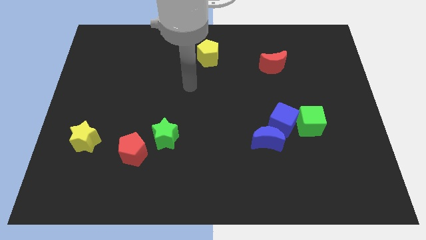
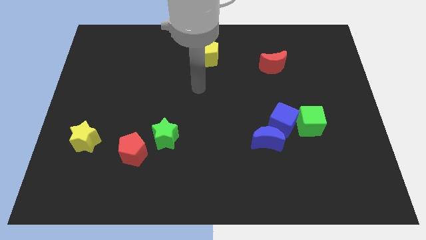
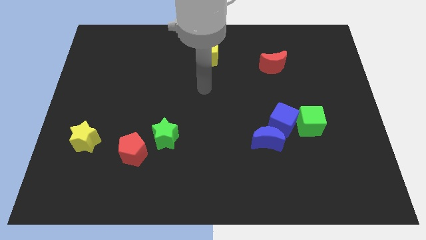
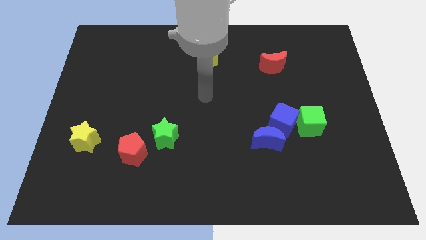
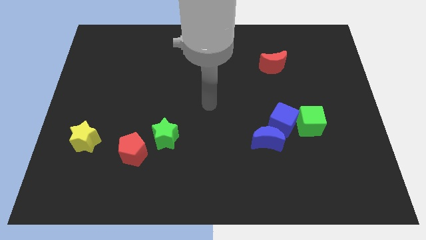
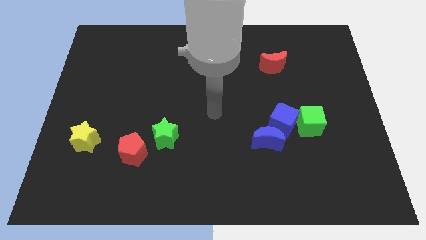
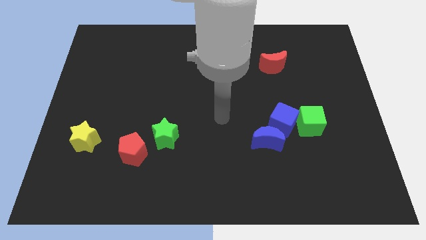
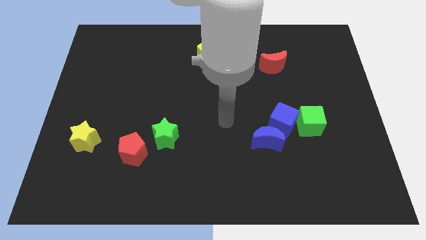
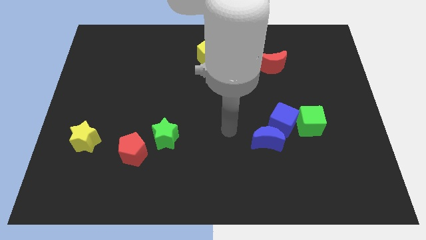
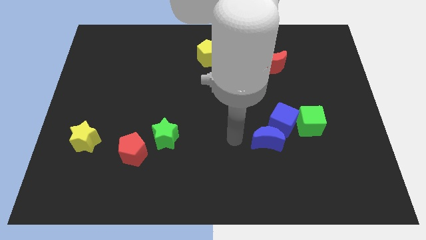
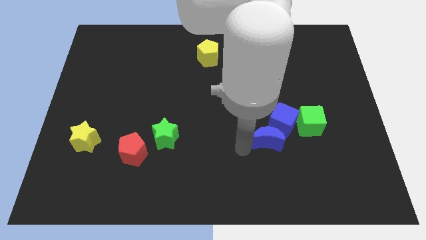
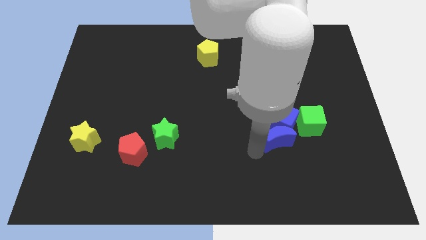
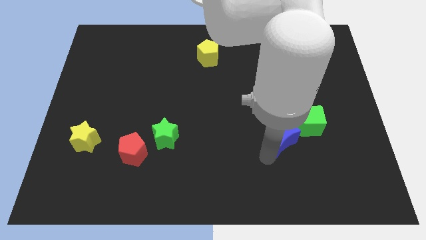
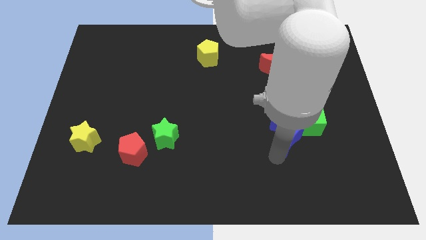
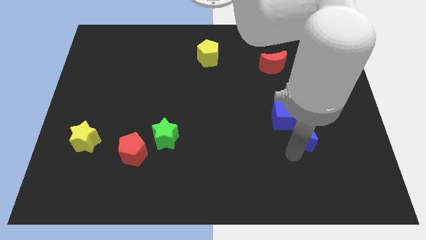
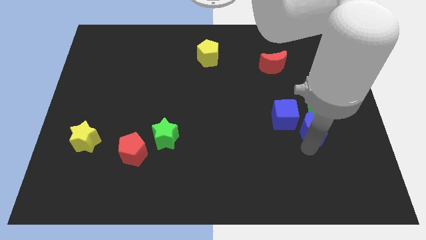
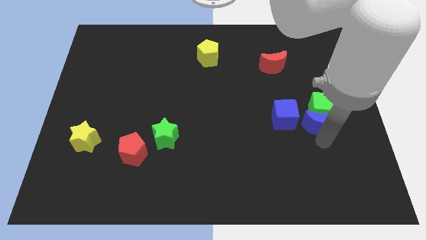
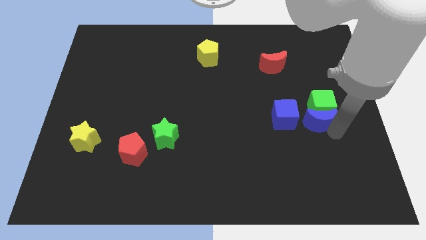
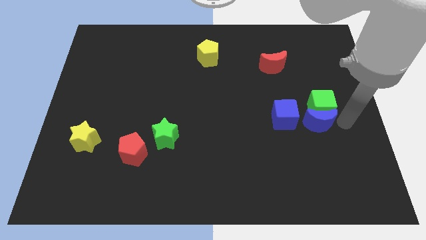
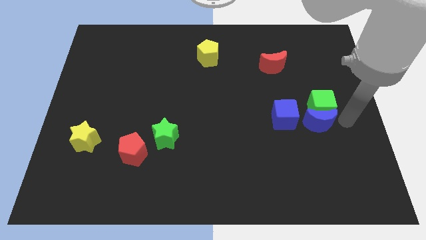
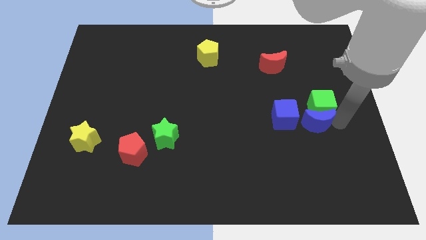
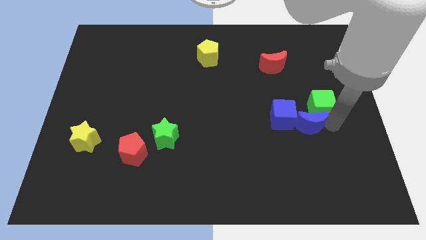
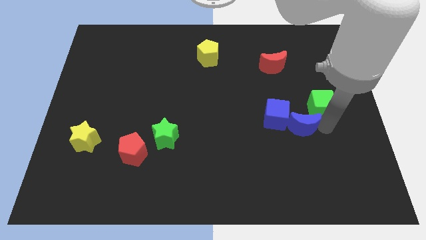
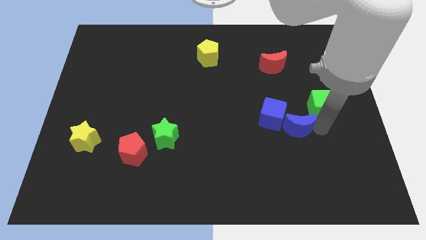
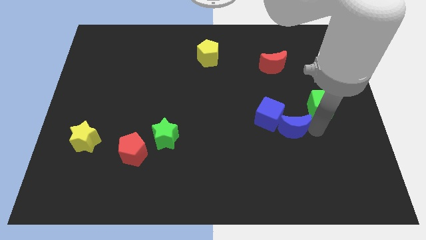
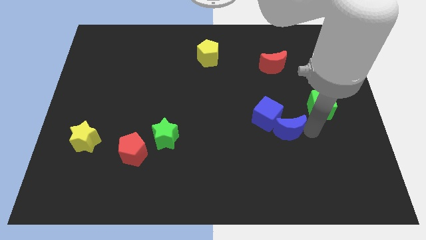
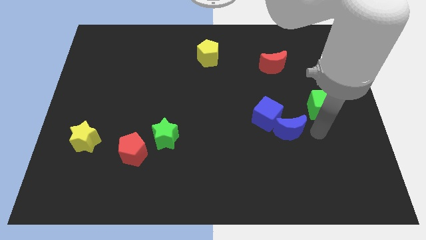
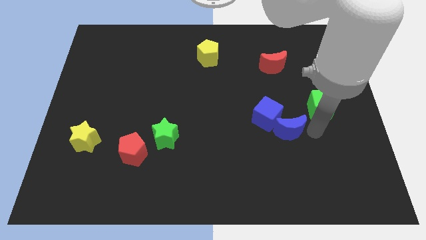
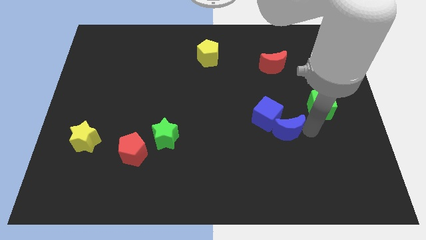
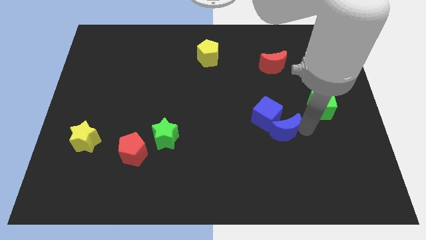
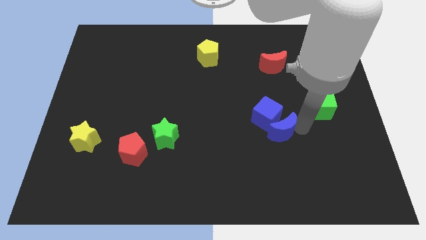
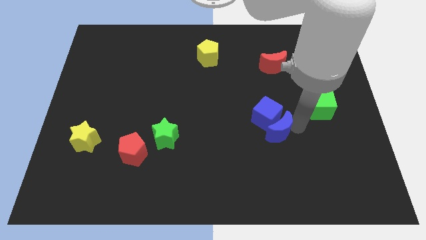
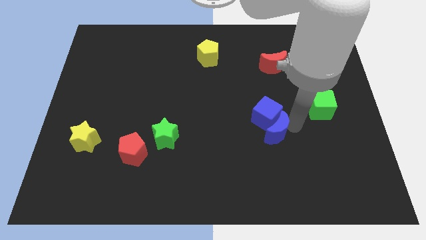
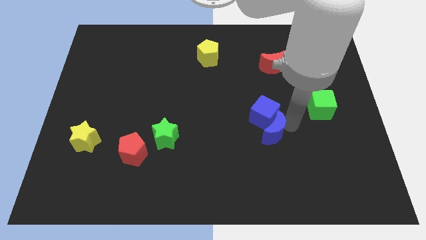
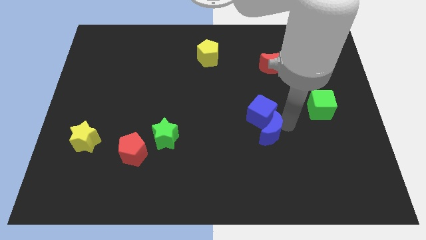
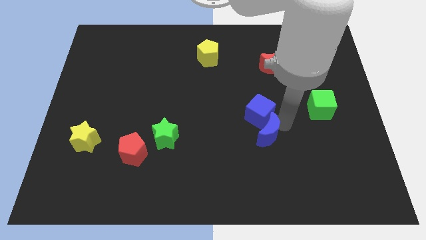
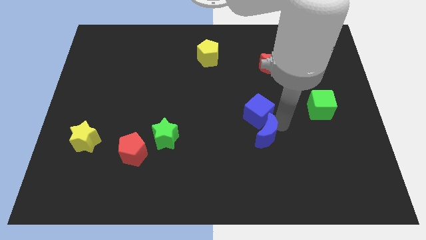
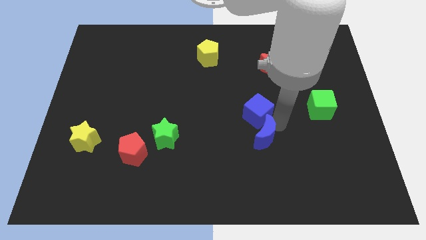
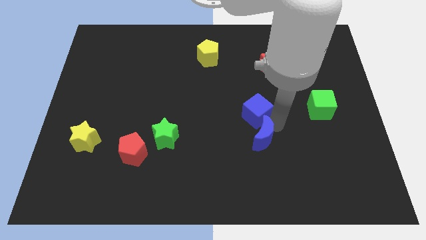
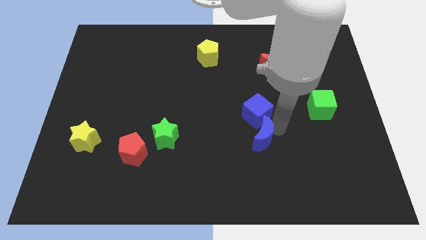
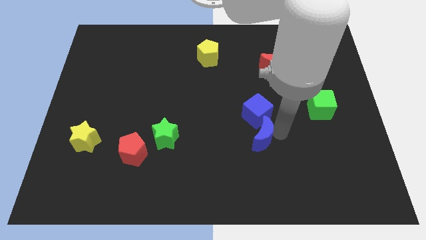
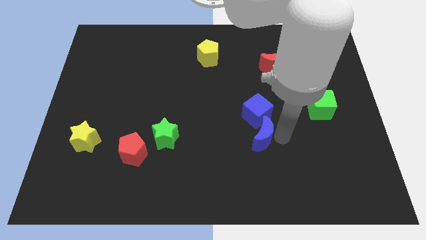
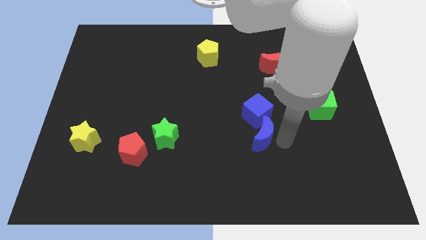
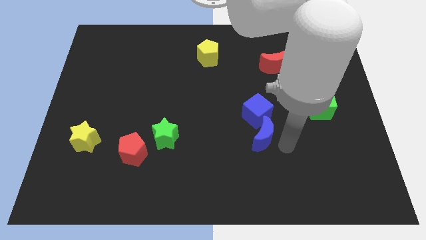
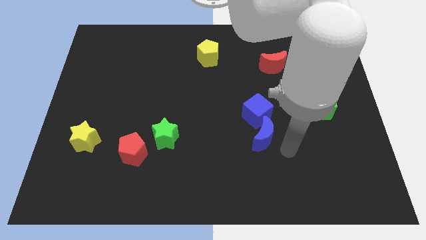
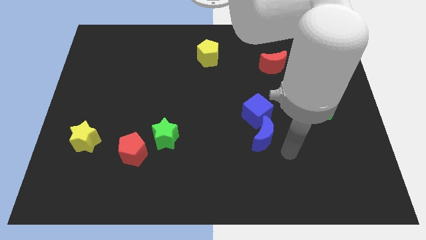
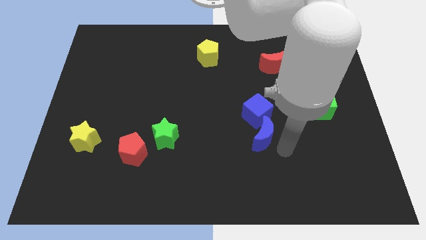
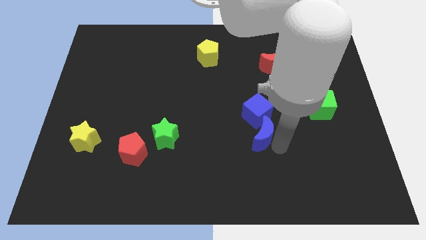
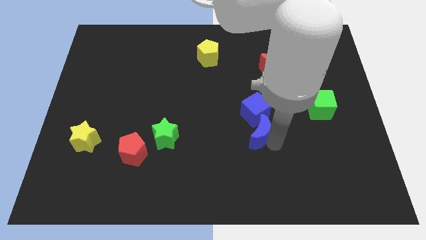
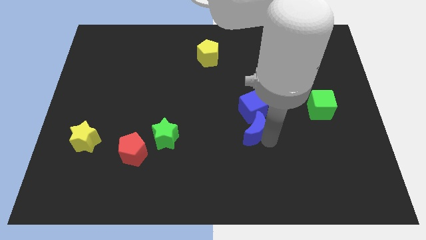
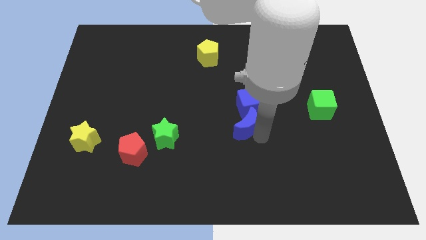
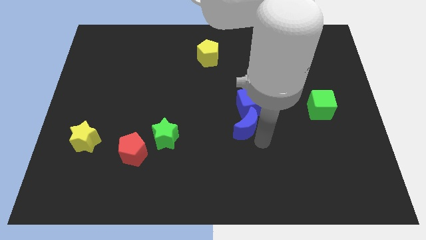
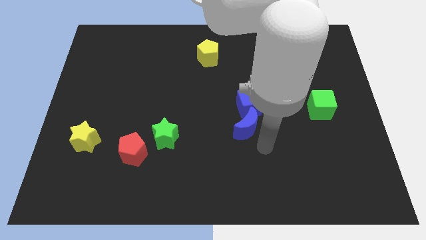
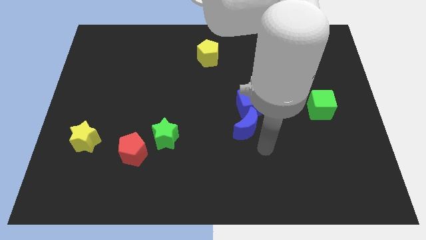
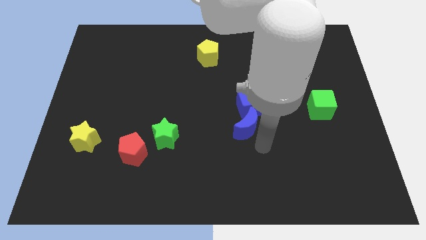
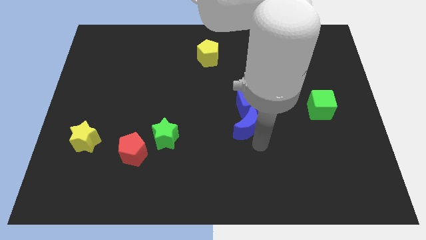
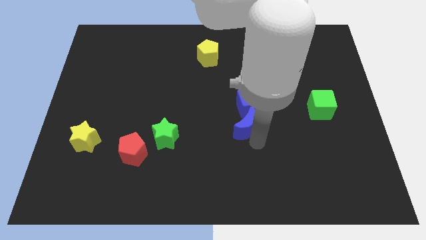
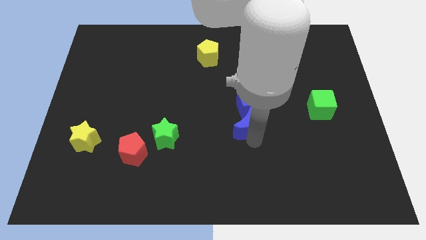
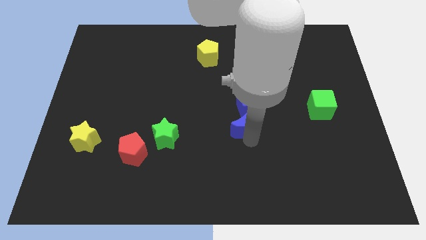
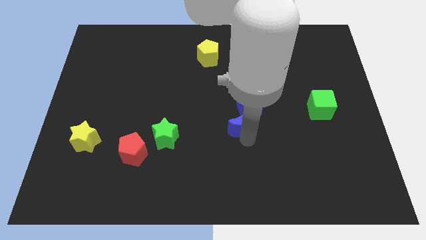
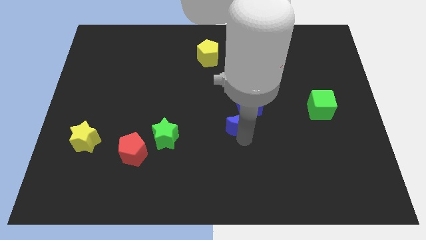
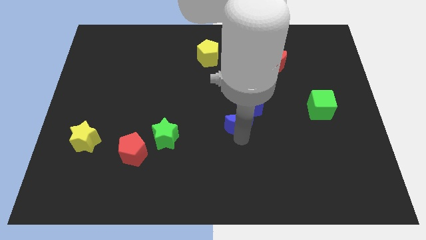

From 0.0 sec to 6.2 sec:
slide the blue moon diagonally upwards and to the left somewhat

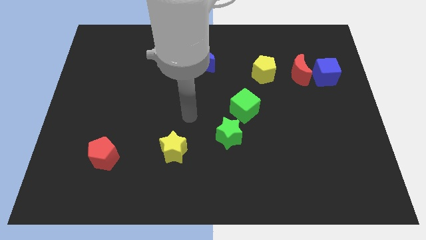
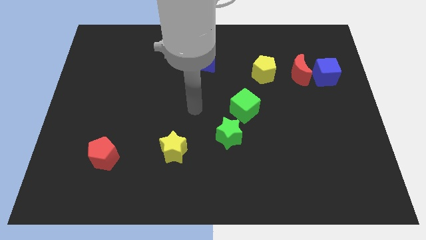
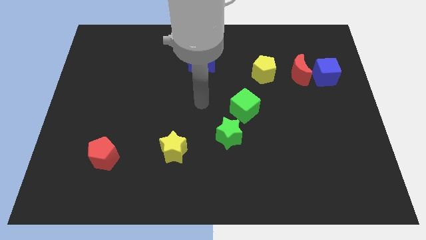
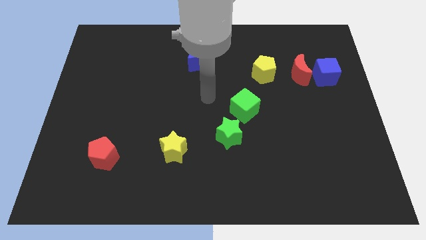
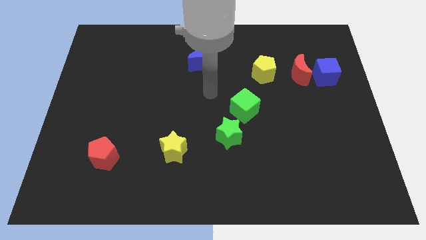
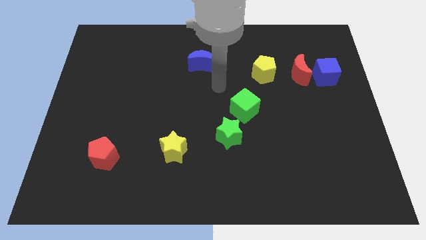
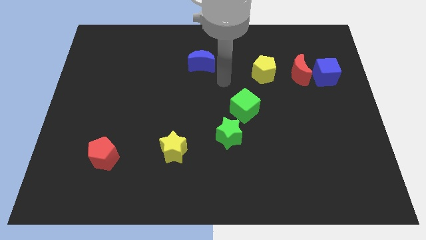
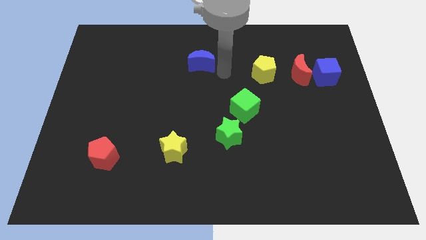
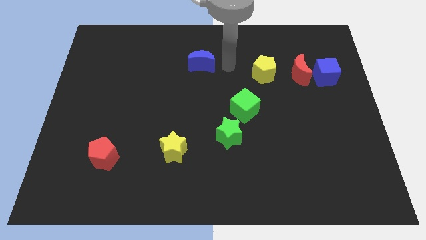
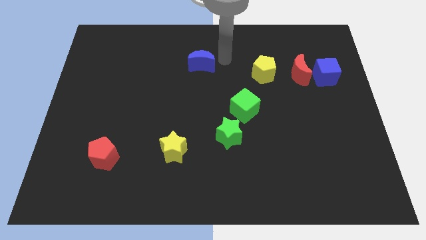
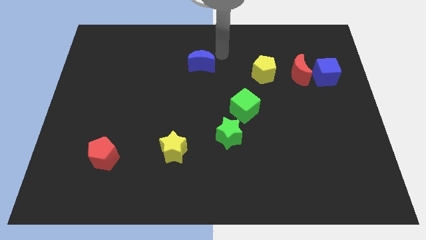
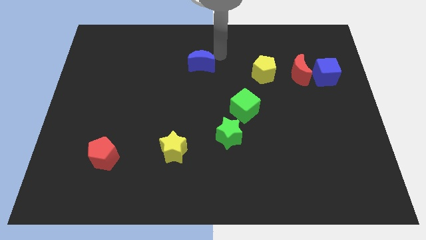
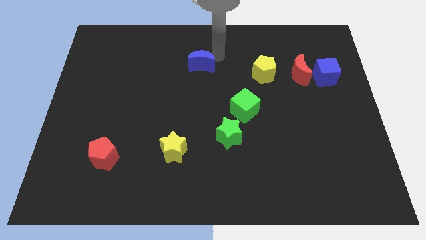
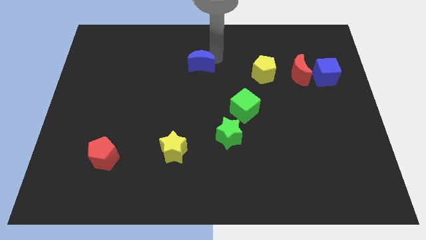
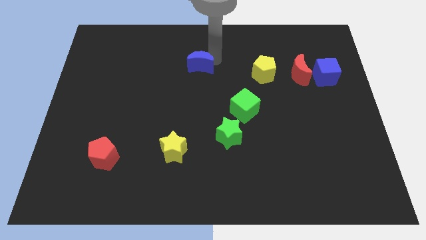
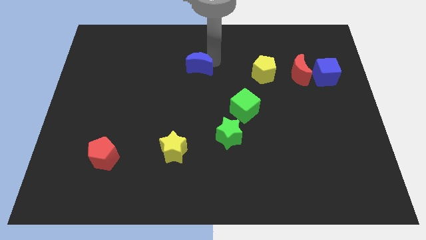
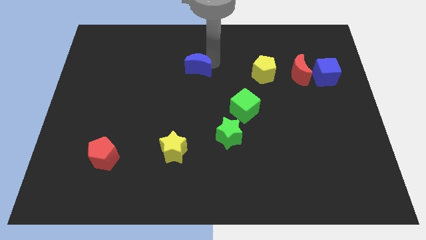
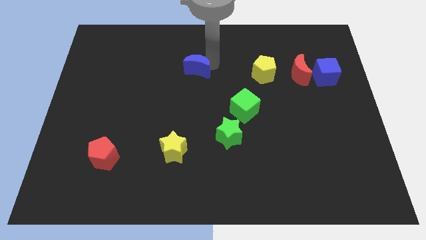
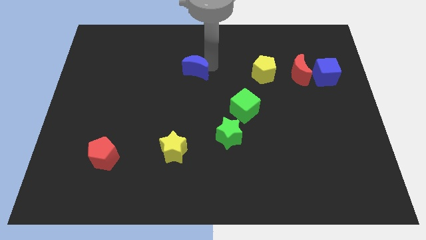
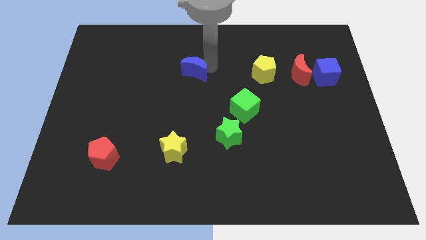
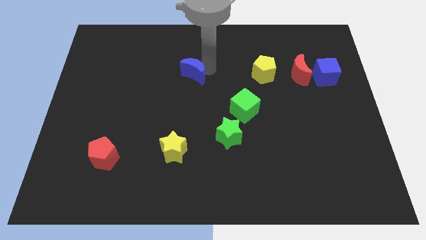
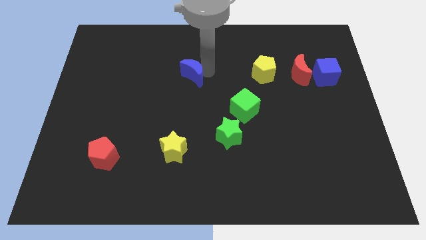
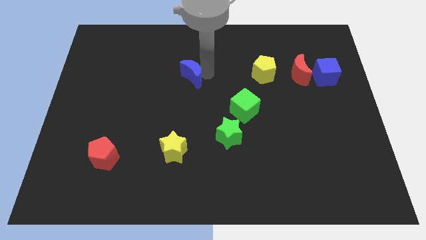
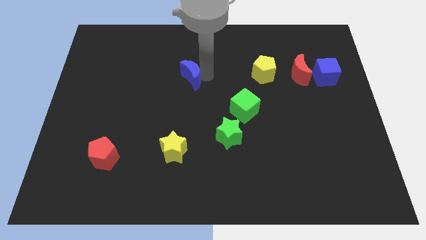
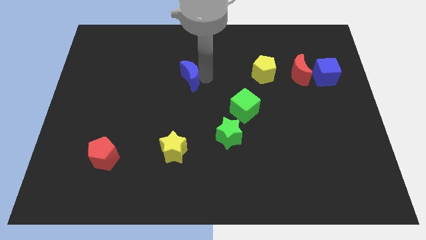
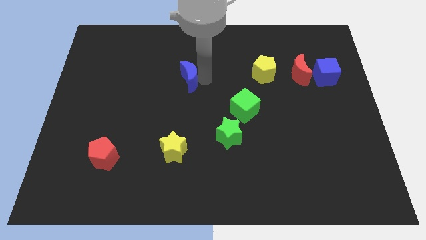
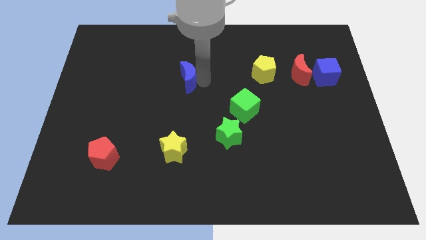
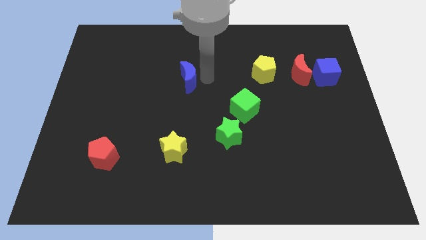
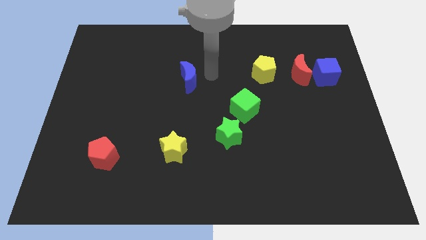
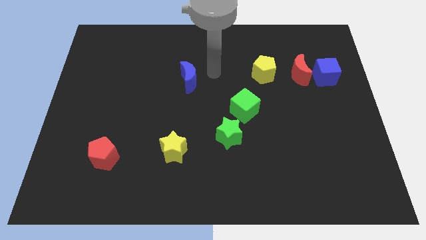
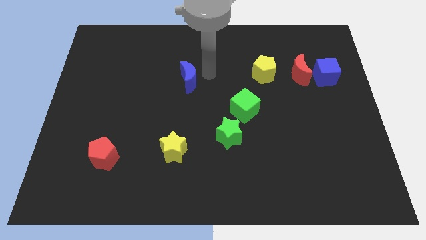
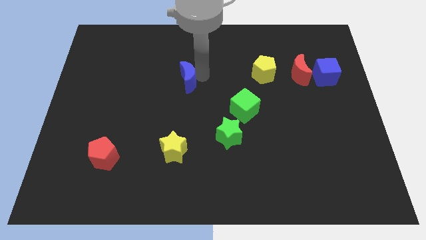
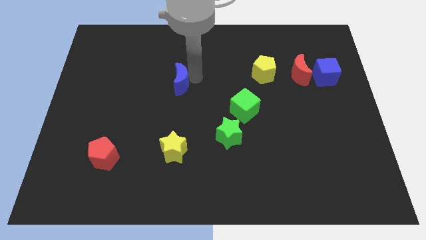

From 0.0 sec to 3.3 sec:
slide the blue moon a little bit diagonally downwards and to the left
